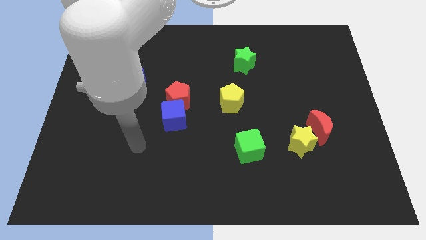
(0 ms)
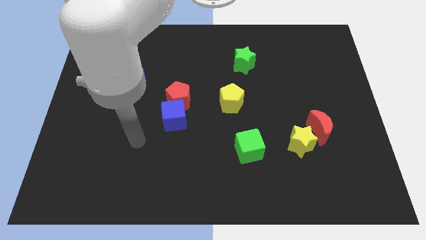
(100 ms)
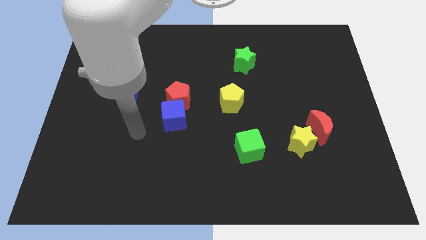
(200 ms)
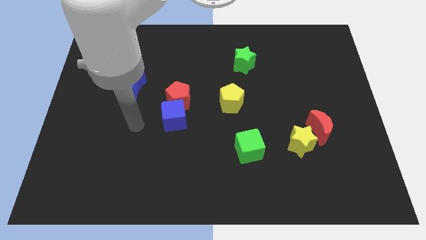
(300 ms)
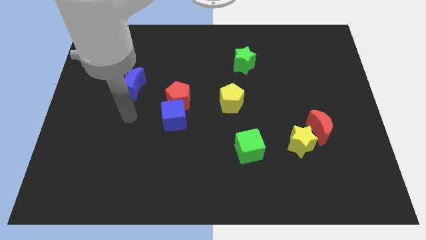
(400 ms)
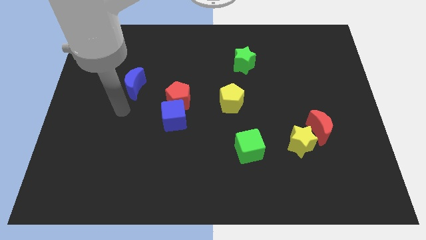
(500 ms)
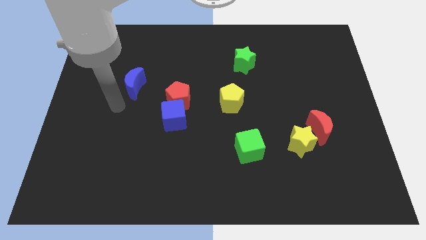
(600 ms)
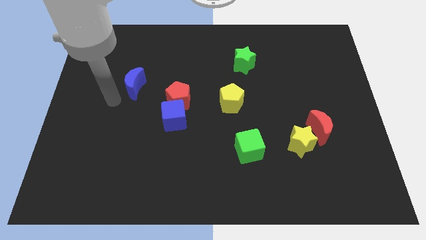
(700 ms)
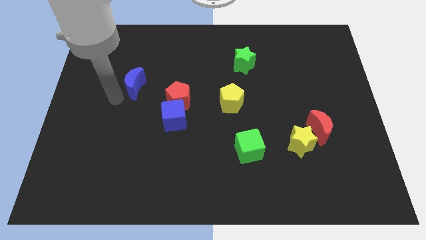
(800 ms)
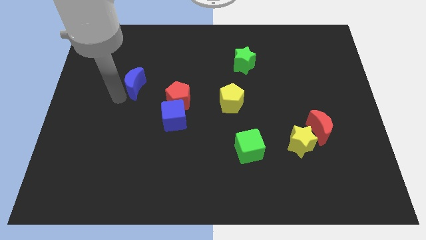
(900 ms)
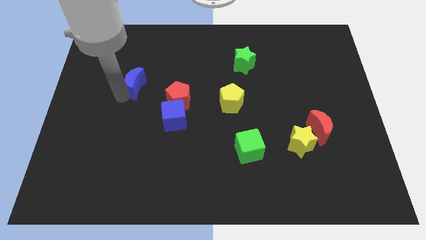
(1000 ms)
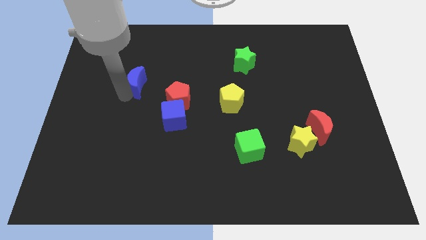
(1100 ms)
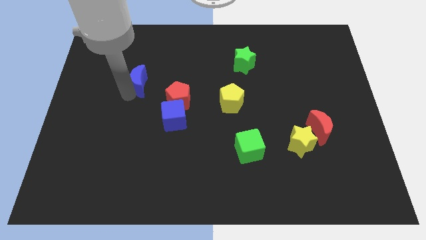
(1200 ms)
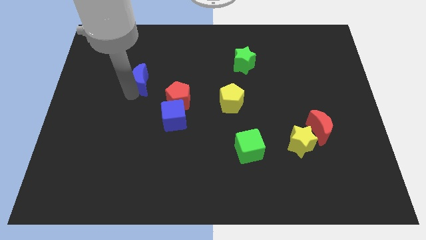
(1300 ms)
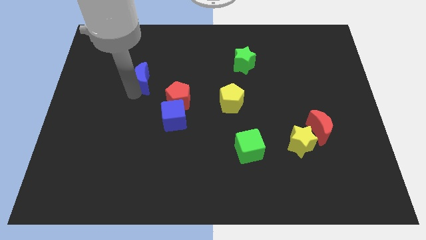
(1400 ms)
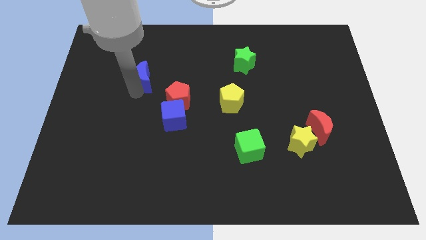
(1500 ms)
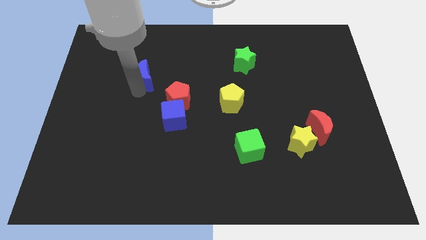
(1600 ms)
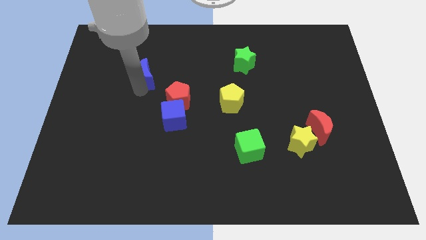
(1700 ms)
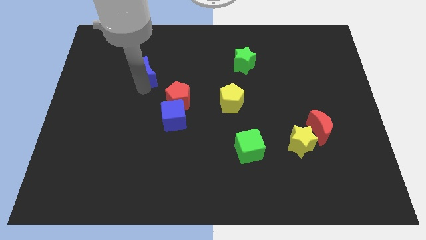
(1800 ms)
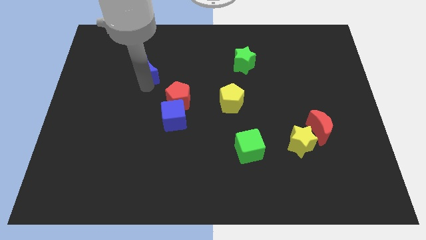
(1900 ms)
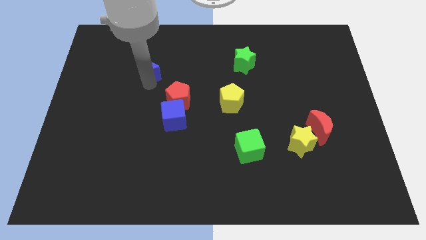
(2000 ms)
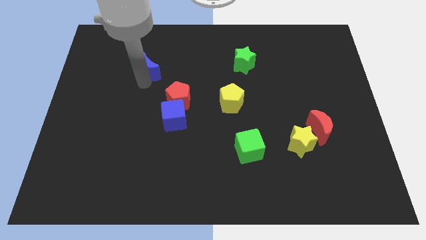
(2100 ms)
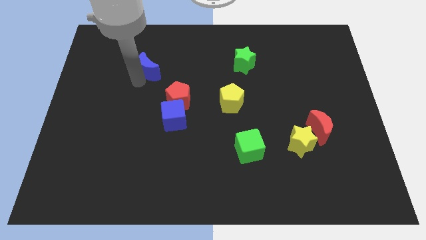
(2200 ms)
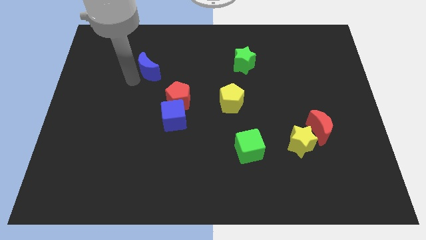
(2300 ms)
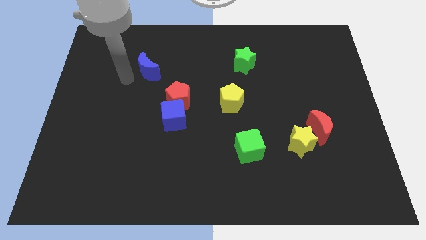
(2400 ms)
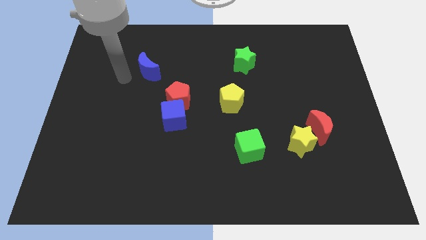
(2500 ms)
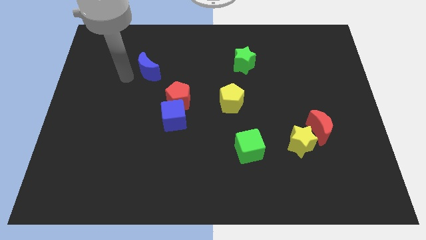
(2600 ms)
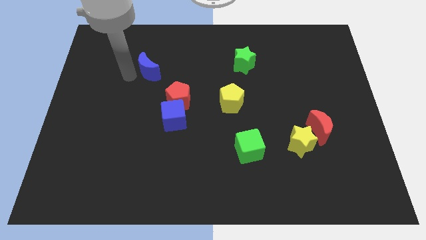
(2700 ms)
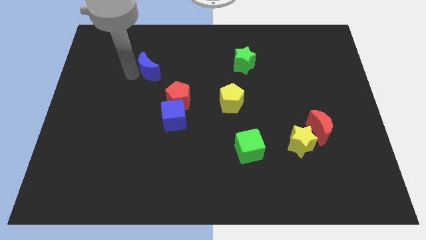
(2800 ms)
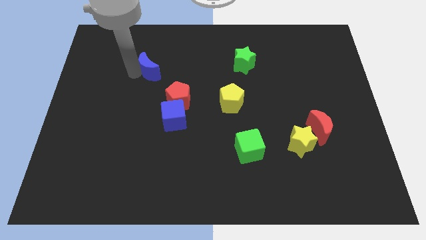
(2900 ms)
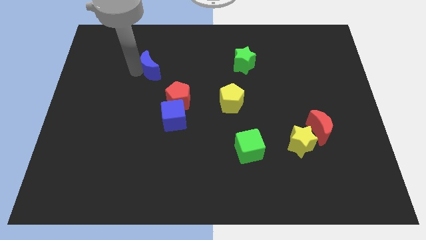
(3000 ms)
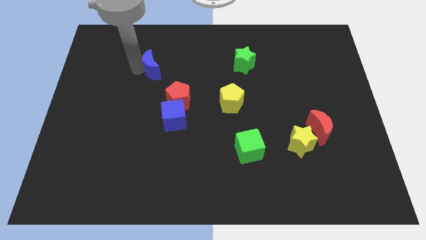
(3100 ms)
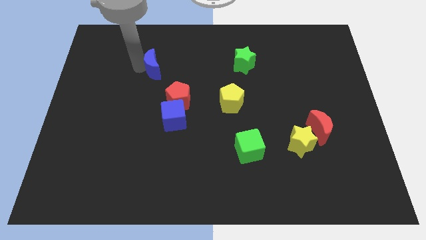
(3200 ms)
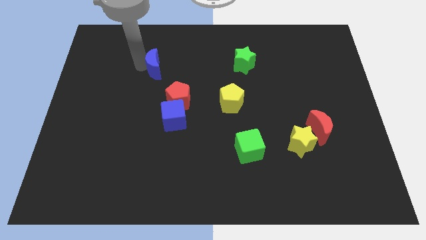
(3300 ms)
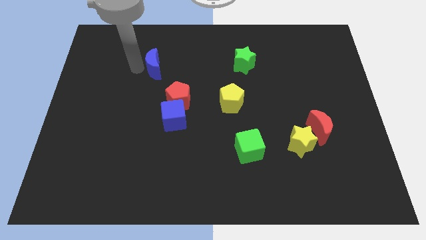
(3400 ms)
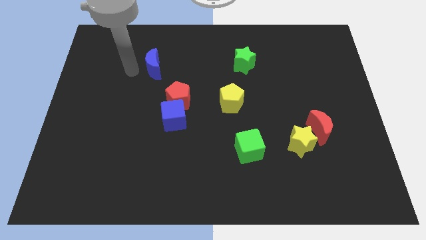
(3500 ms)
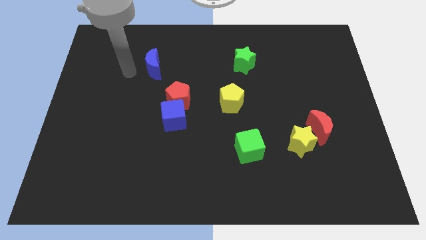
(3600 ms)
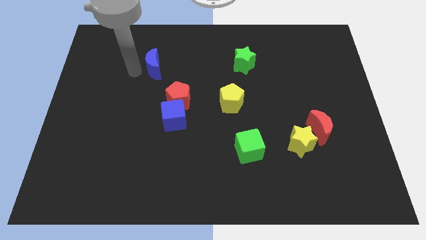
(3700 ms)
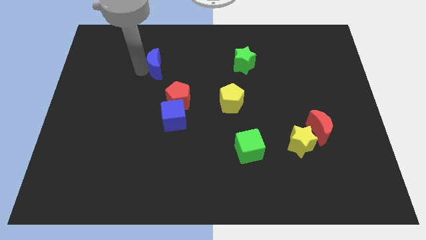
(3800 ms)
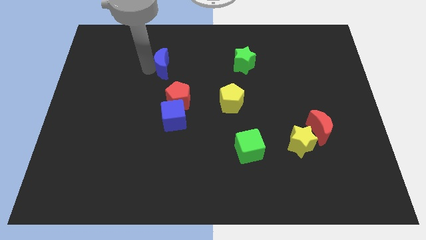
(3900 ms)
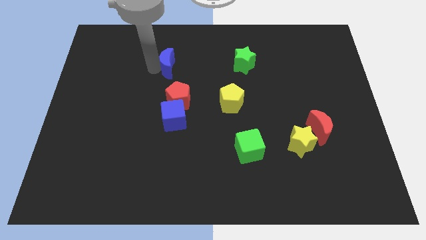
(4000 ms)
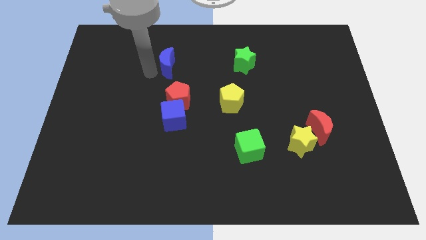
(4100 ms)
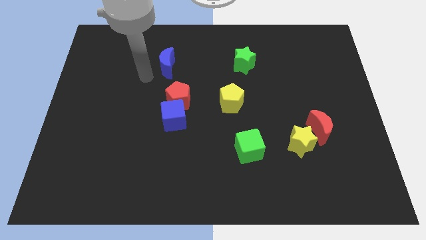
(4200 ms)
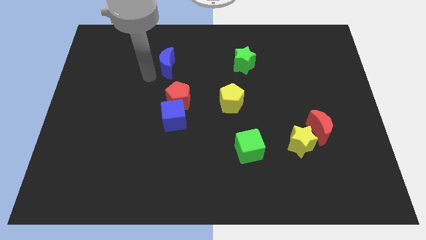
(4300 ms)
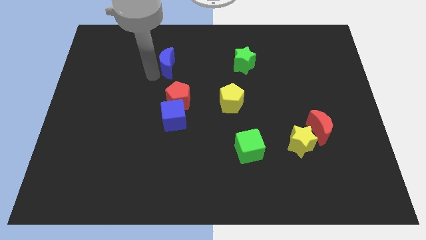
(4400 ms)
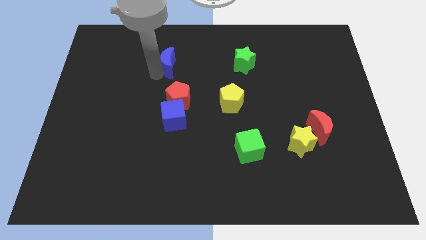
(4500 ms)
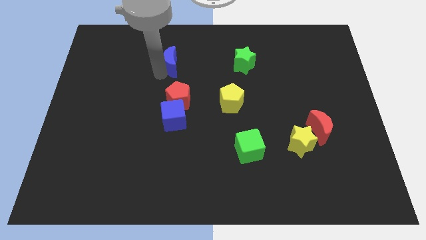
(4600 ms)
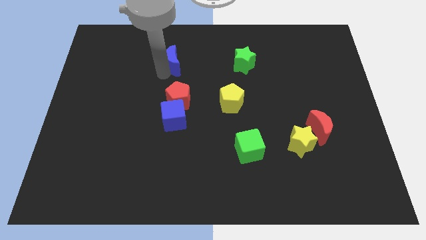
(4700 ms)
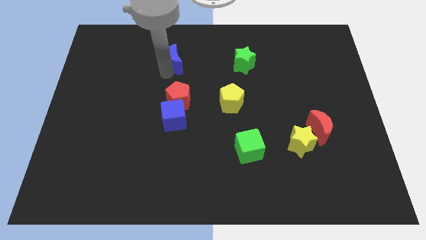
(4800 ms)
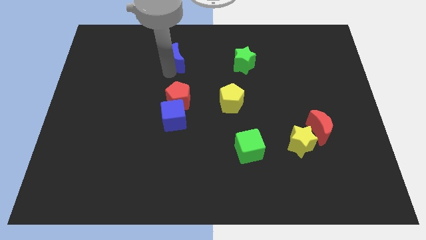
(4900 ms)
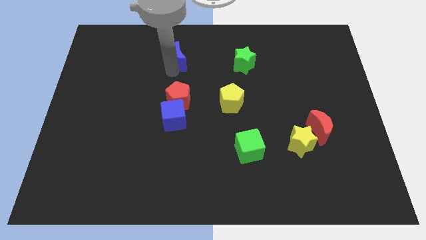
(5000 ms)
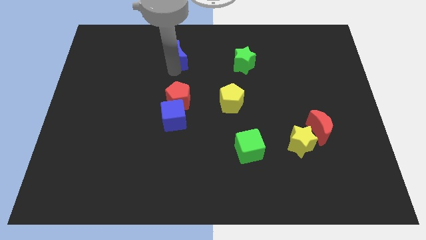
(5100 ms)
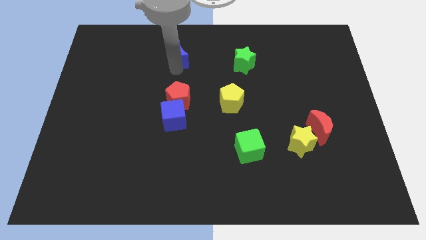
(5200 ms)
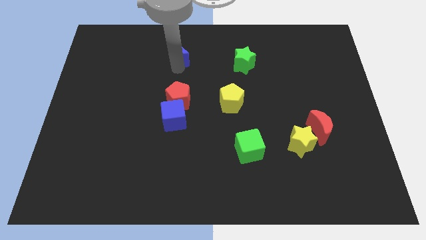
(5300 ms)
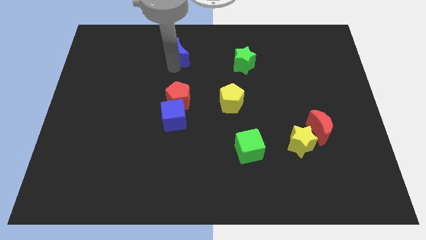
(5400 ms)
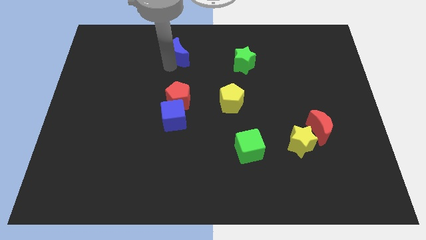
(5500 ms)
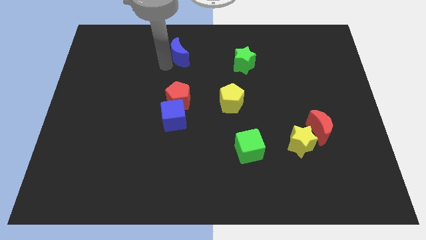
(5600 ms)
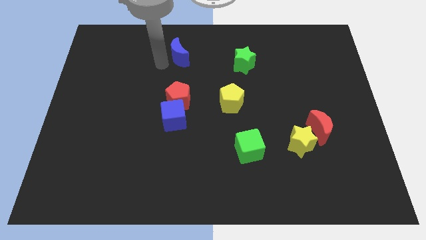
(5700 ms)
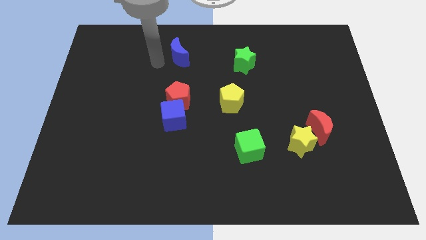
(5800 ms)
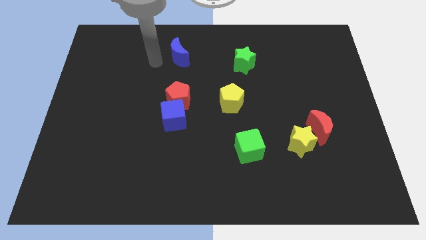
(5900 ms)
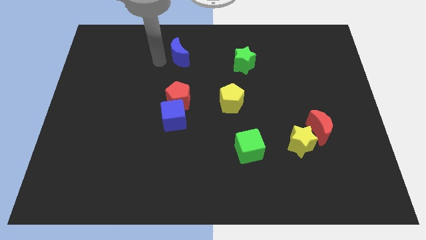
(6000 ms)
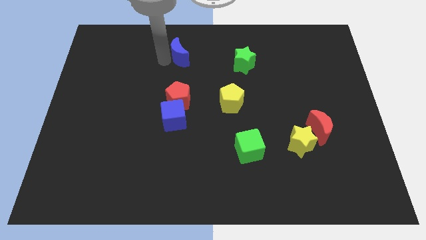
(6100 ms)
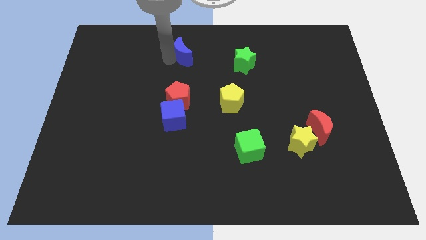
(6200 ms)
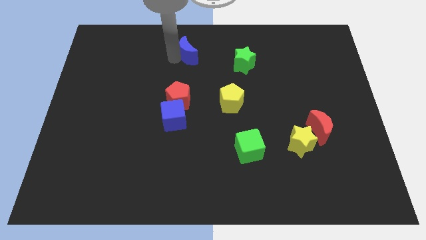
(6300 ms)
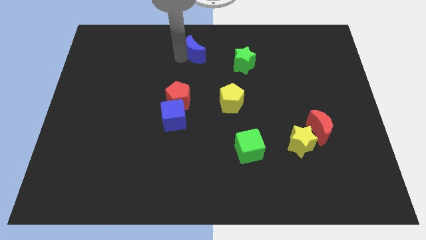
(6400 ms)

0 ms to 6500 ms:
push the blue moon to the top side

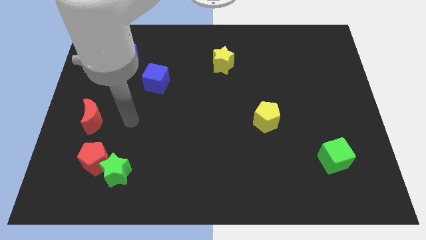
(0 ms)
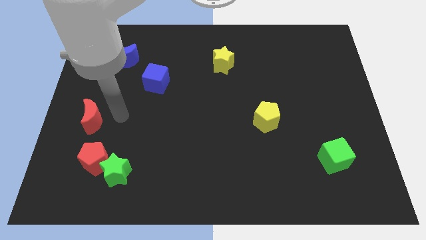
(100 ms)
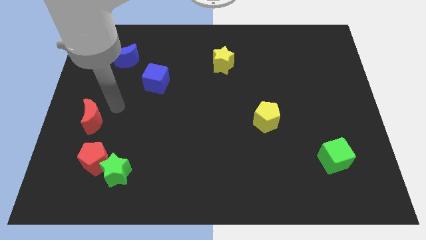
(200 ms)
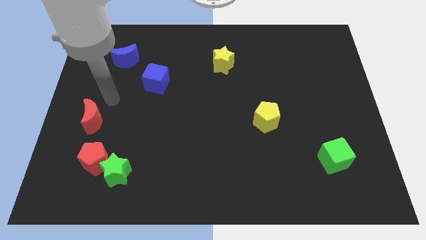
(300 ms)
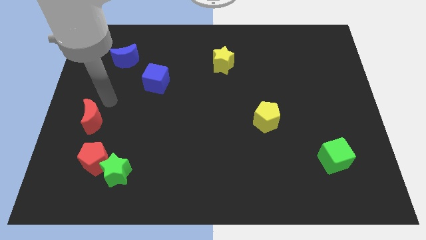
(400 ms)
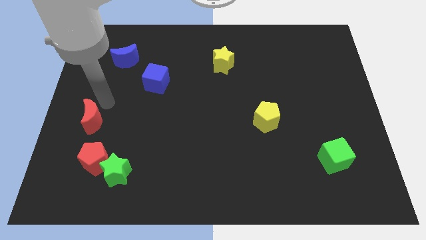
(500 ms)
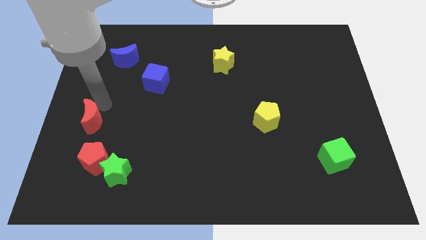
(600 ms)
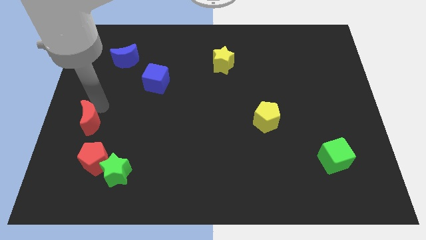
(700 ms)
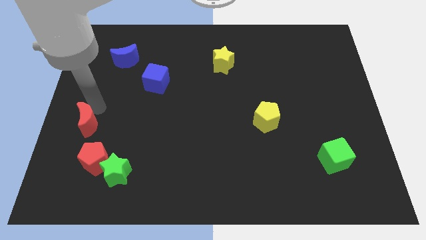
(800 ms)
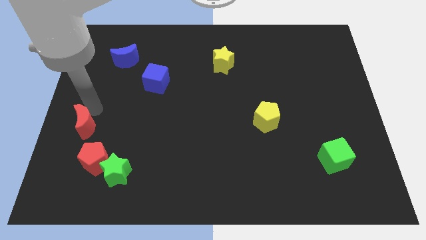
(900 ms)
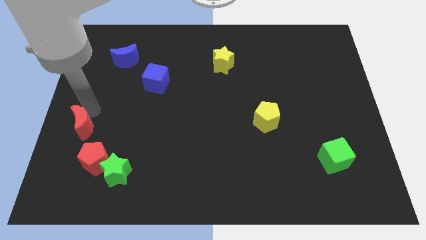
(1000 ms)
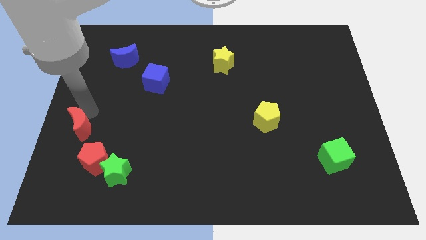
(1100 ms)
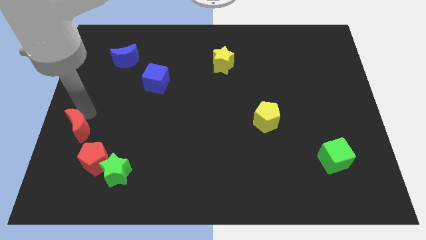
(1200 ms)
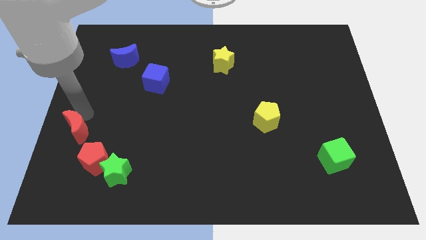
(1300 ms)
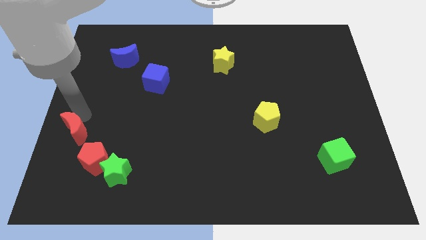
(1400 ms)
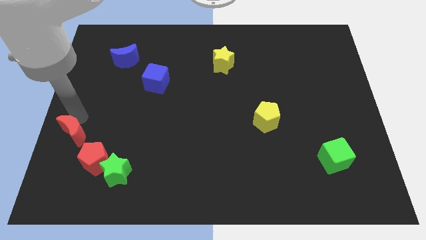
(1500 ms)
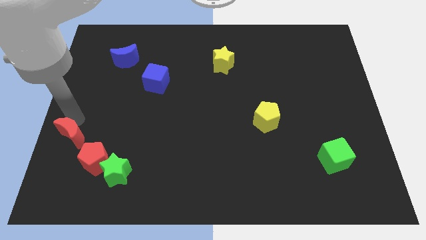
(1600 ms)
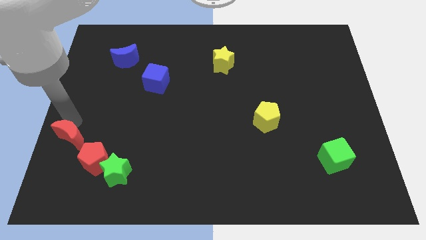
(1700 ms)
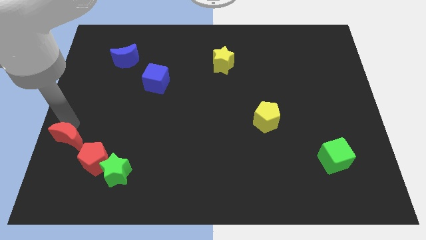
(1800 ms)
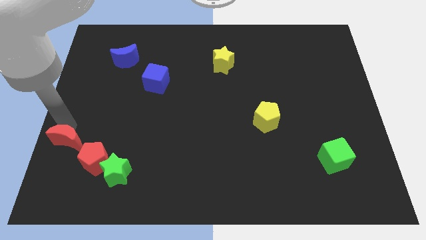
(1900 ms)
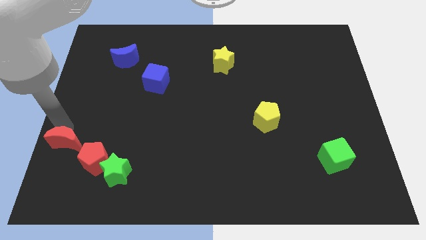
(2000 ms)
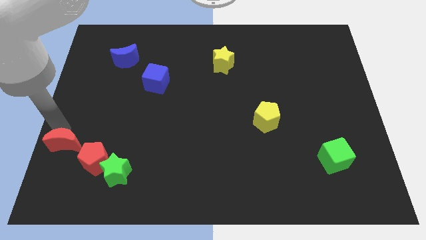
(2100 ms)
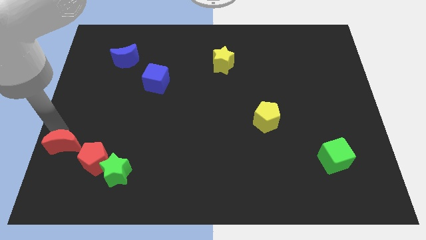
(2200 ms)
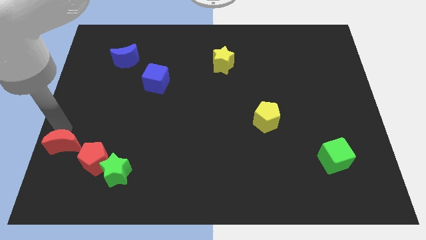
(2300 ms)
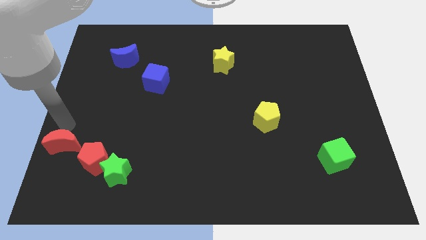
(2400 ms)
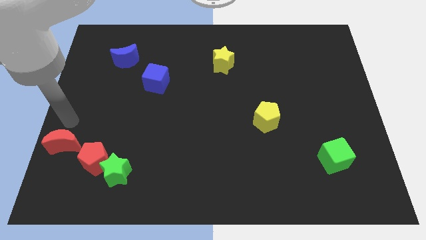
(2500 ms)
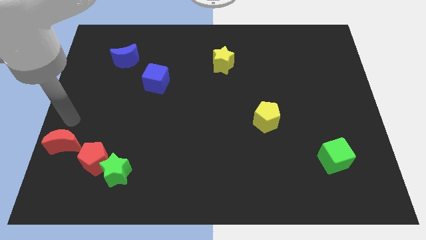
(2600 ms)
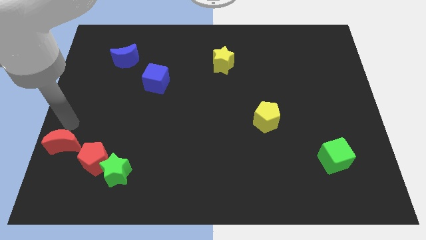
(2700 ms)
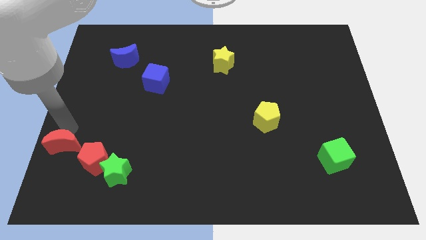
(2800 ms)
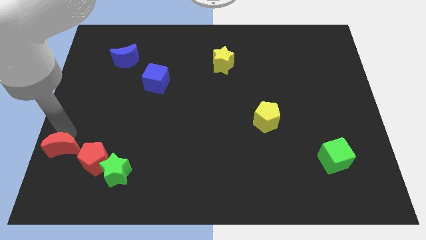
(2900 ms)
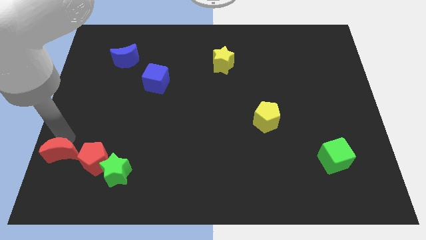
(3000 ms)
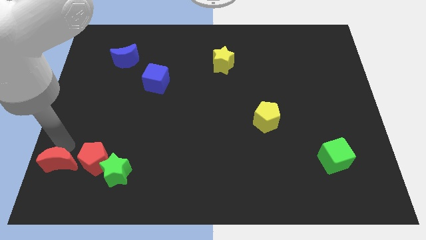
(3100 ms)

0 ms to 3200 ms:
slide the red moon to the bottom left corner
